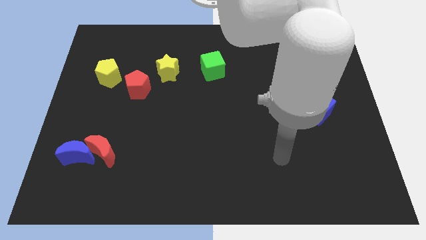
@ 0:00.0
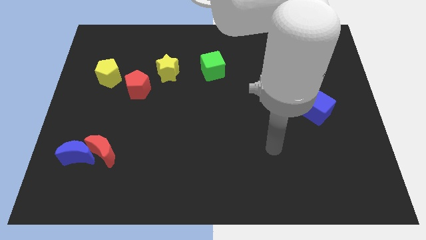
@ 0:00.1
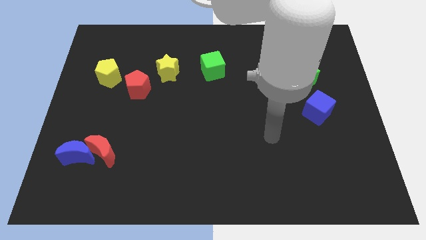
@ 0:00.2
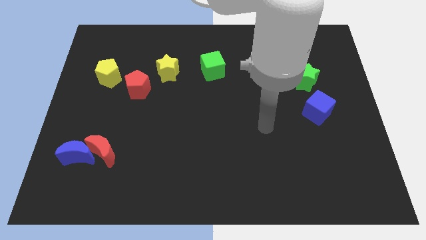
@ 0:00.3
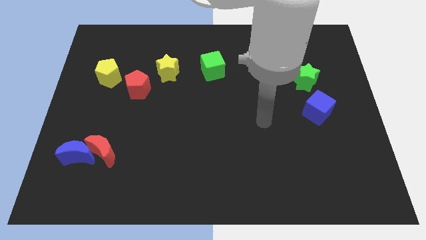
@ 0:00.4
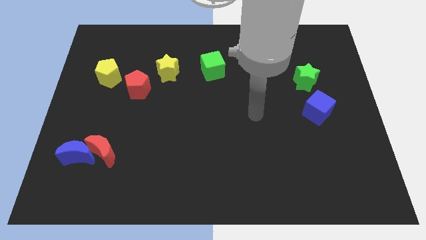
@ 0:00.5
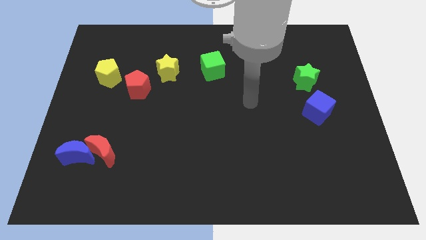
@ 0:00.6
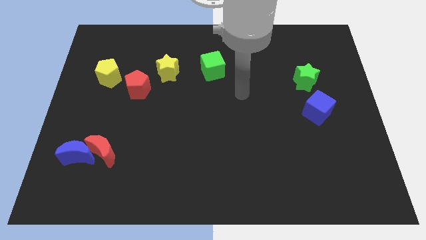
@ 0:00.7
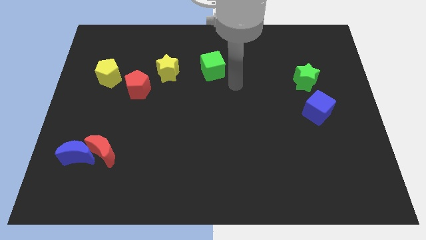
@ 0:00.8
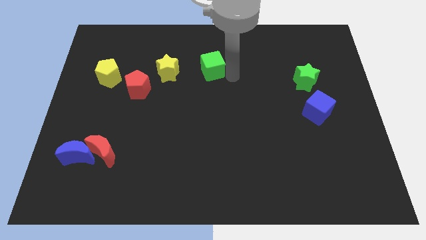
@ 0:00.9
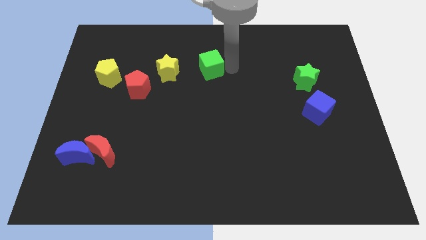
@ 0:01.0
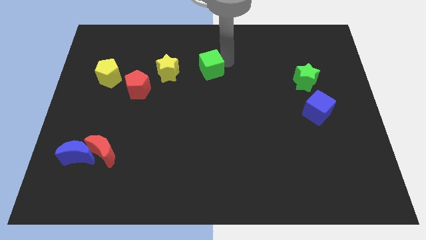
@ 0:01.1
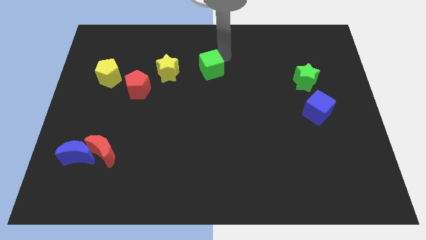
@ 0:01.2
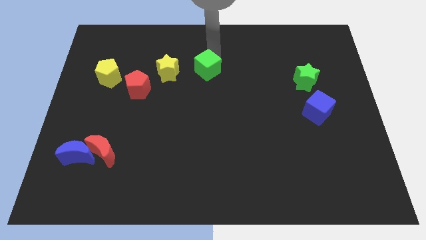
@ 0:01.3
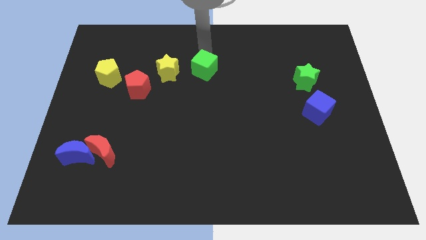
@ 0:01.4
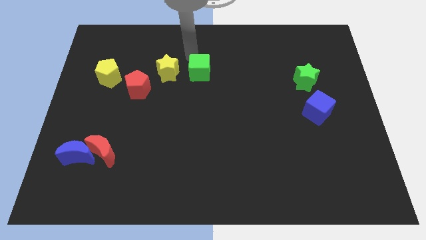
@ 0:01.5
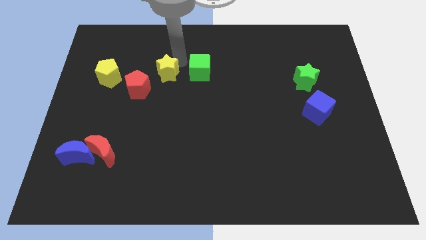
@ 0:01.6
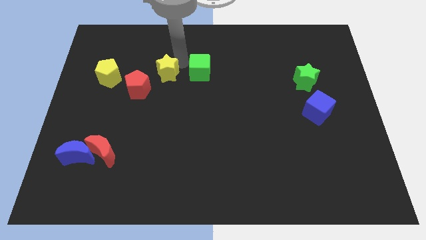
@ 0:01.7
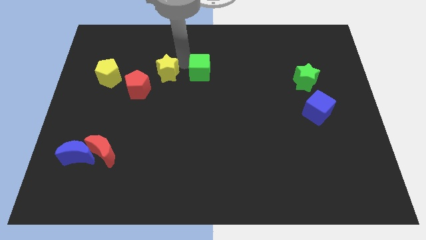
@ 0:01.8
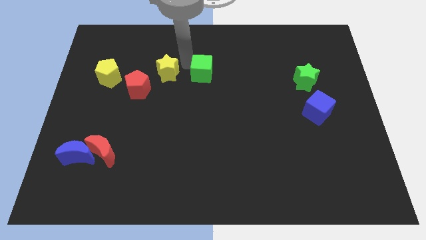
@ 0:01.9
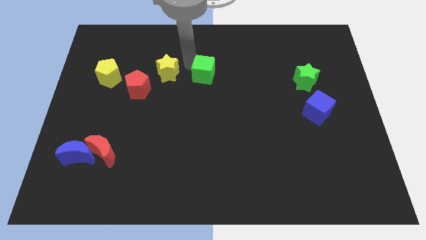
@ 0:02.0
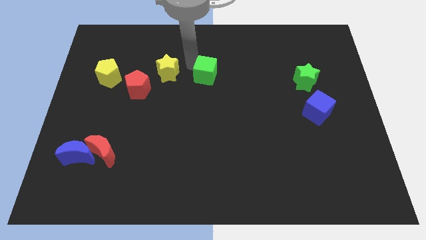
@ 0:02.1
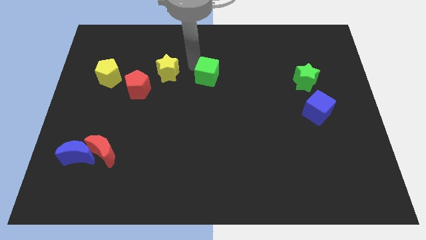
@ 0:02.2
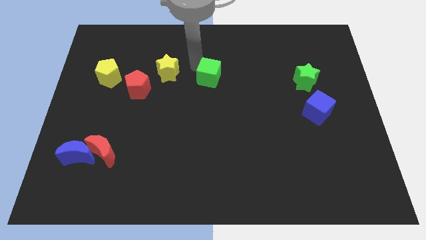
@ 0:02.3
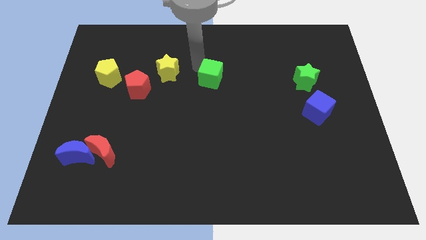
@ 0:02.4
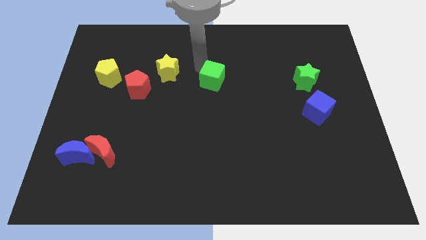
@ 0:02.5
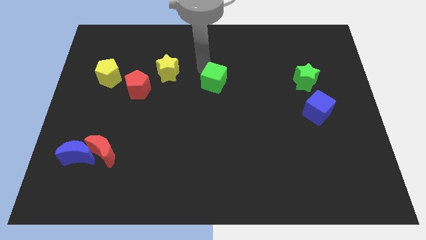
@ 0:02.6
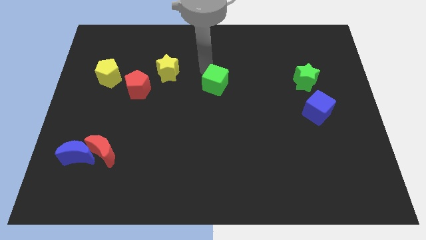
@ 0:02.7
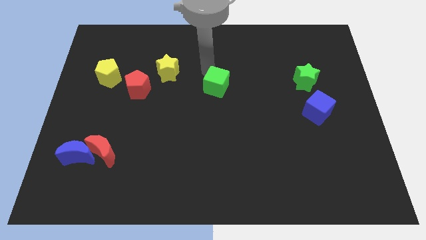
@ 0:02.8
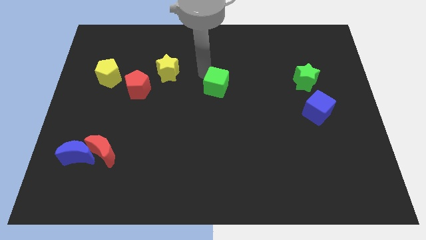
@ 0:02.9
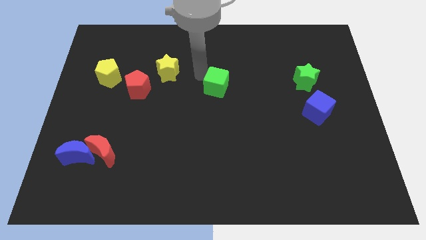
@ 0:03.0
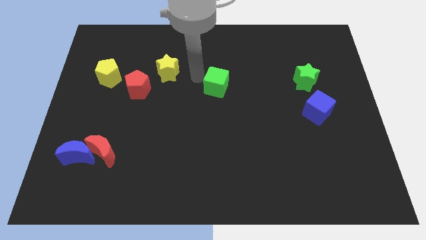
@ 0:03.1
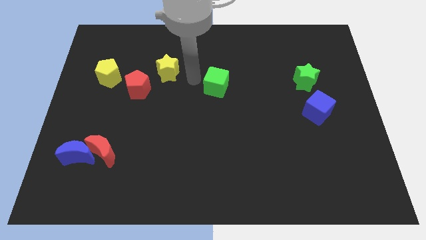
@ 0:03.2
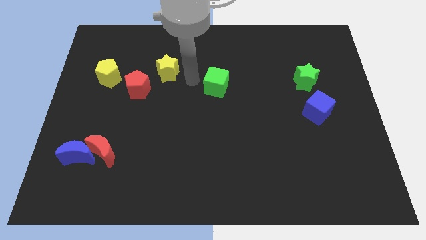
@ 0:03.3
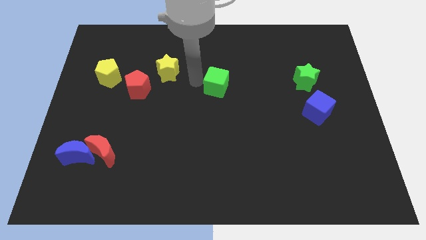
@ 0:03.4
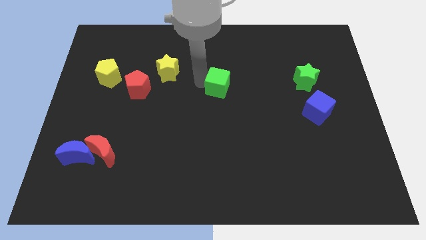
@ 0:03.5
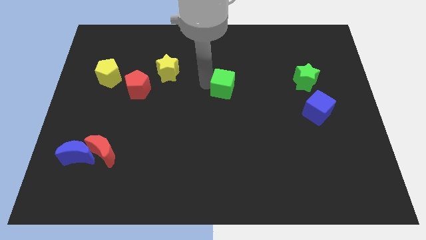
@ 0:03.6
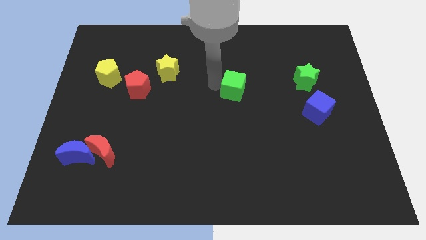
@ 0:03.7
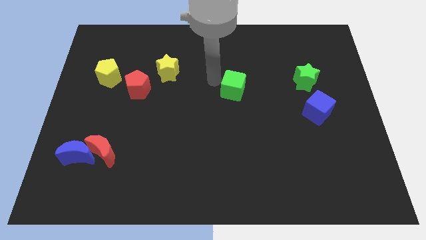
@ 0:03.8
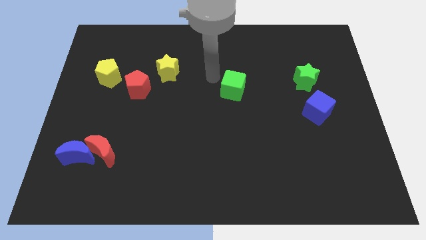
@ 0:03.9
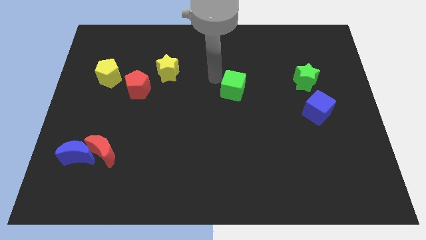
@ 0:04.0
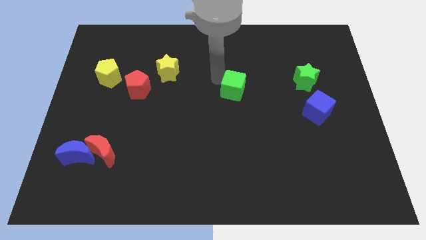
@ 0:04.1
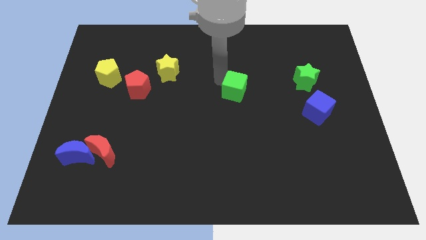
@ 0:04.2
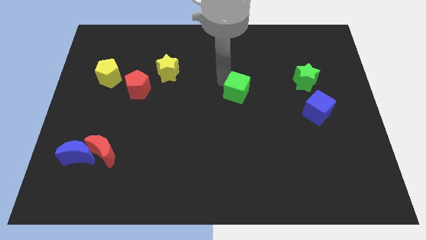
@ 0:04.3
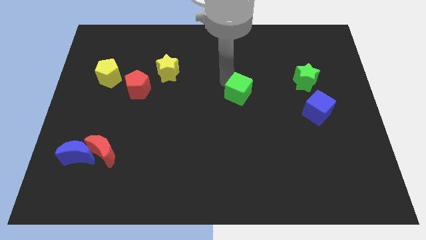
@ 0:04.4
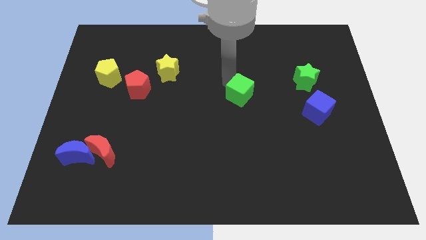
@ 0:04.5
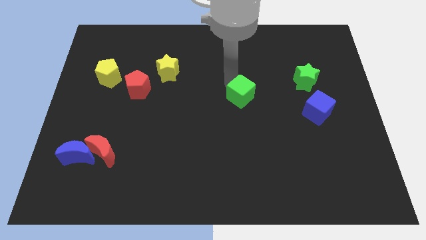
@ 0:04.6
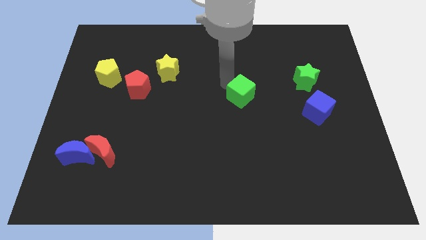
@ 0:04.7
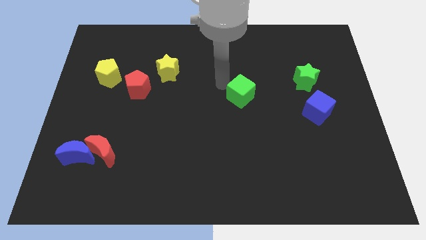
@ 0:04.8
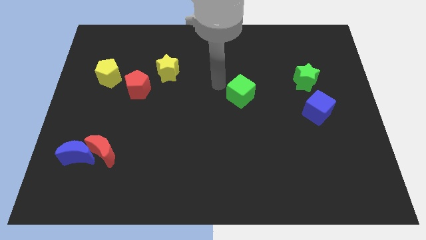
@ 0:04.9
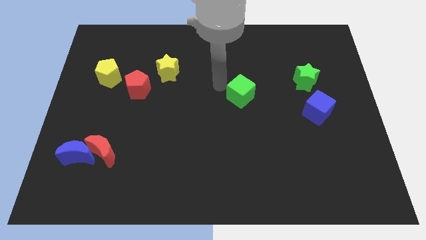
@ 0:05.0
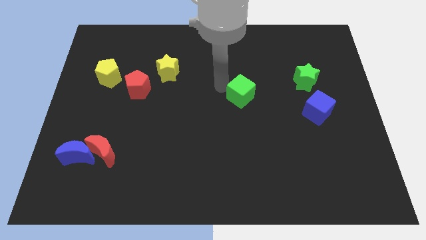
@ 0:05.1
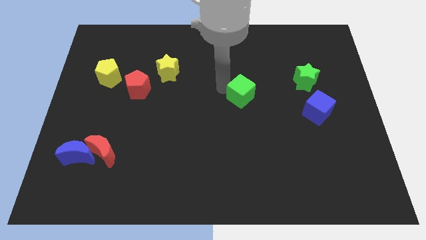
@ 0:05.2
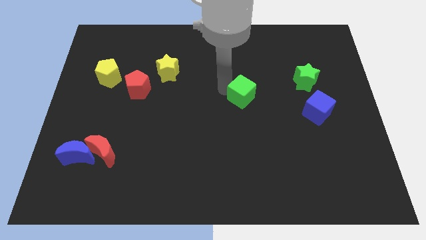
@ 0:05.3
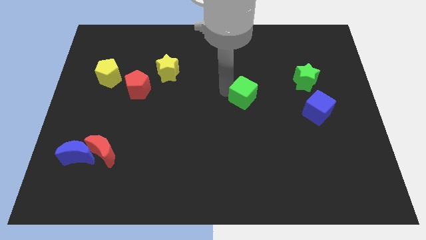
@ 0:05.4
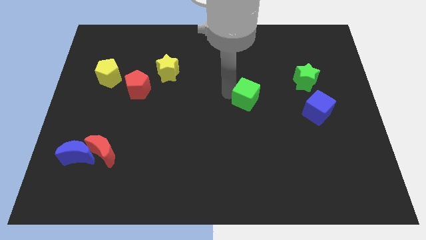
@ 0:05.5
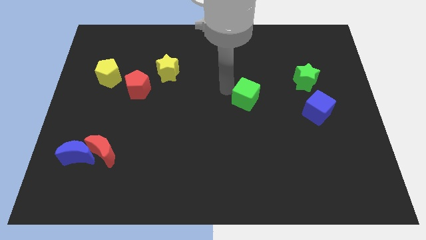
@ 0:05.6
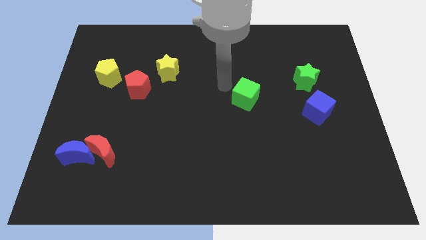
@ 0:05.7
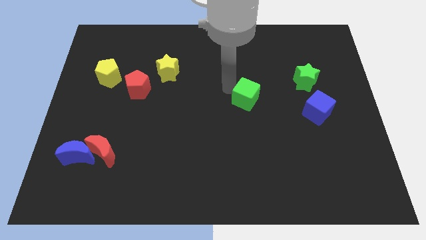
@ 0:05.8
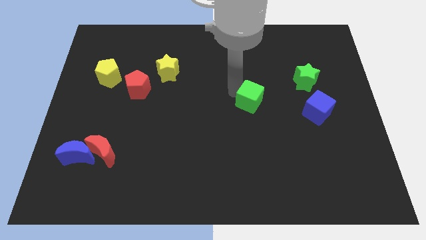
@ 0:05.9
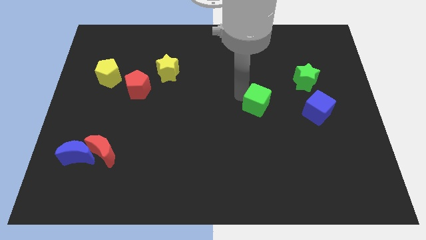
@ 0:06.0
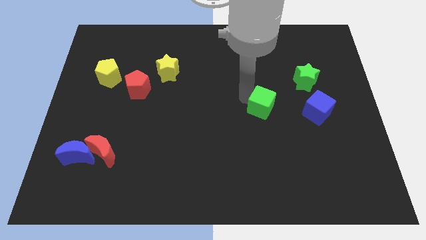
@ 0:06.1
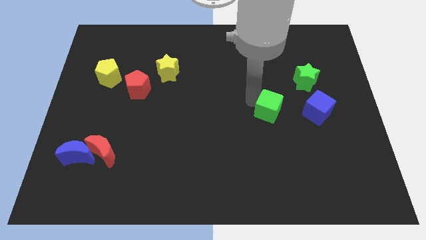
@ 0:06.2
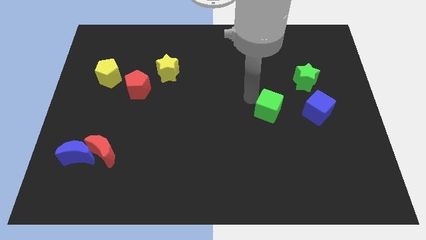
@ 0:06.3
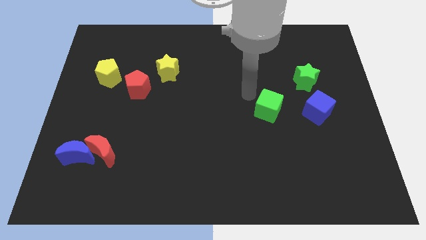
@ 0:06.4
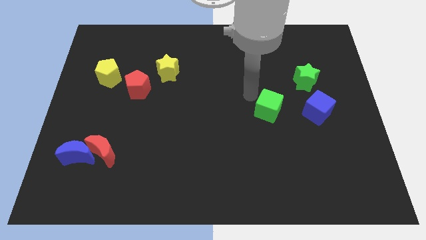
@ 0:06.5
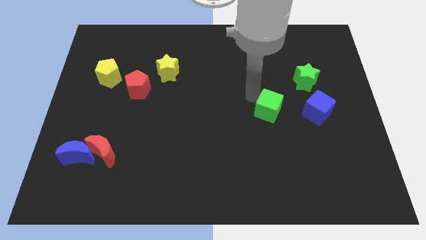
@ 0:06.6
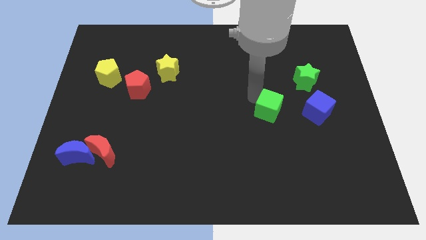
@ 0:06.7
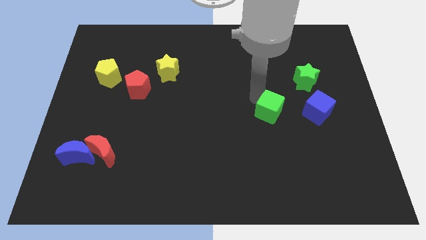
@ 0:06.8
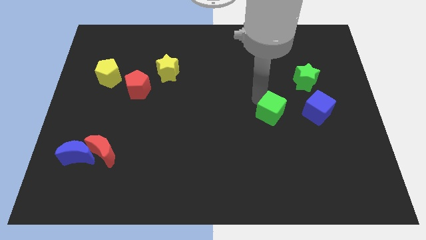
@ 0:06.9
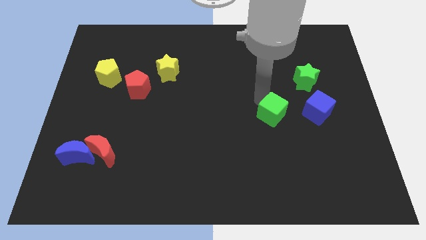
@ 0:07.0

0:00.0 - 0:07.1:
slide the green cube down and then to the right

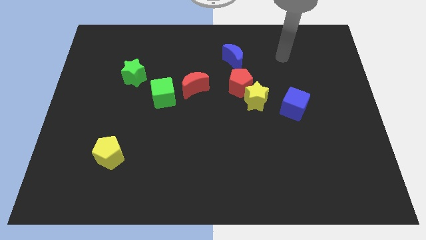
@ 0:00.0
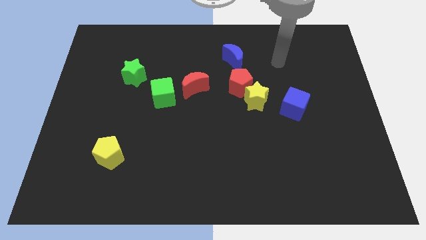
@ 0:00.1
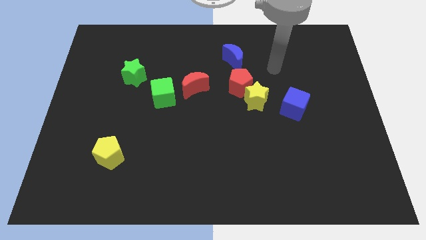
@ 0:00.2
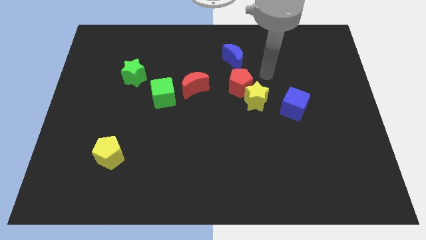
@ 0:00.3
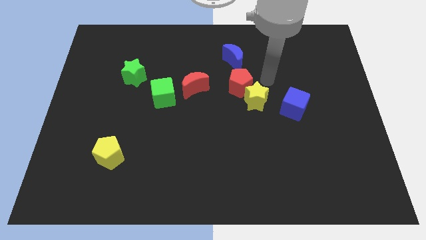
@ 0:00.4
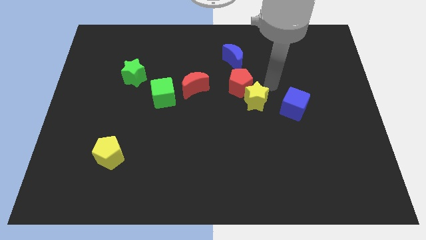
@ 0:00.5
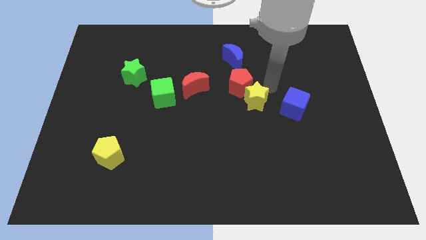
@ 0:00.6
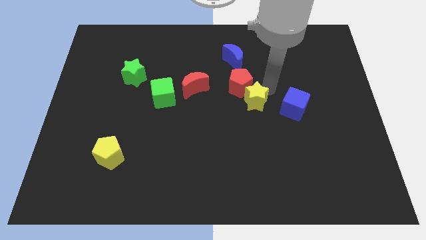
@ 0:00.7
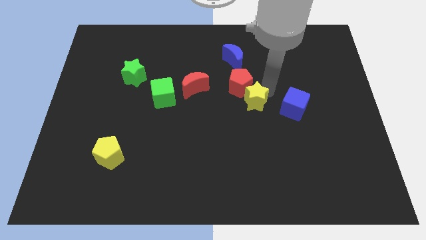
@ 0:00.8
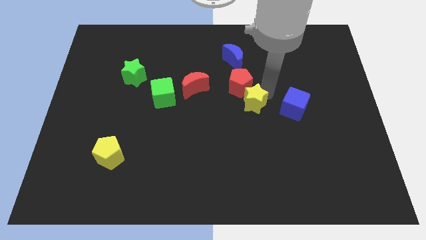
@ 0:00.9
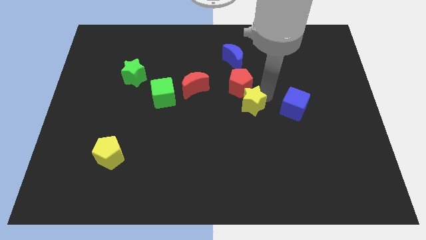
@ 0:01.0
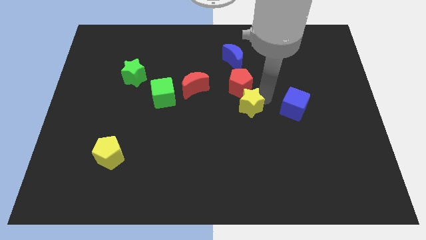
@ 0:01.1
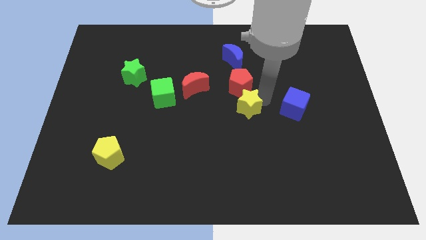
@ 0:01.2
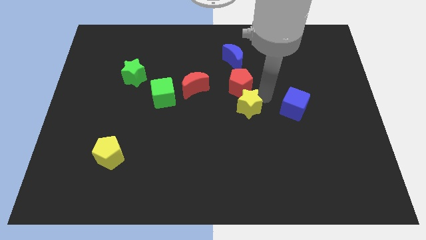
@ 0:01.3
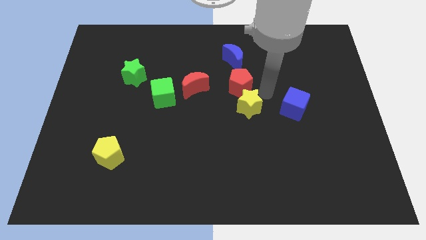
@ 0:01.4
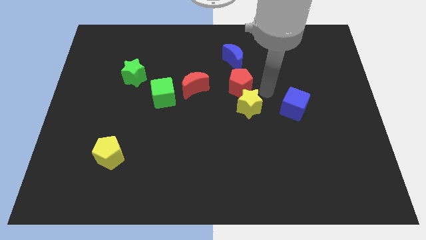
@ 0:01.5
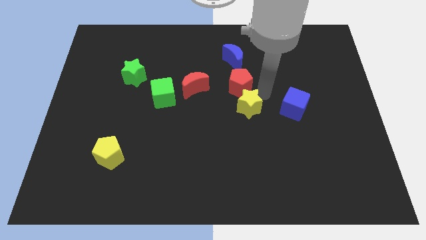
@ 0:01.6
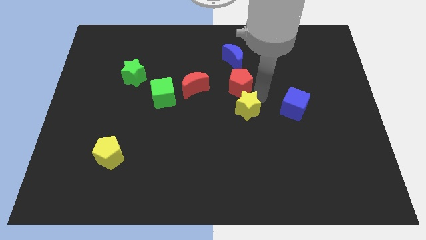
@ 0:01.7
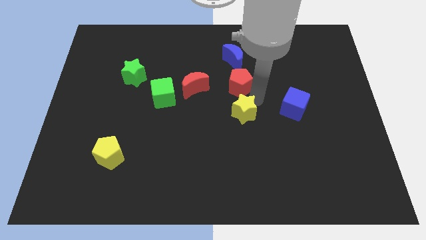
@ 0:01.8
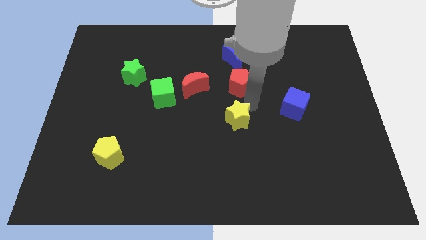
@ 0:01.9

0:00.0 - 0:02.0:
push the yellow star a little bit downwards and to the left
